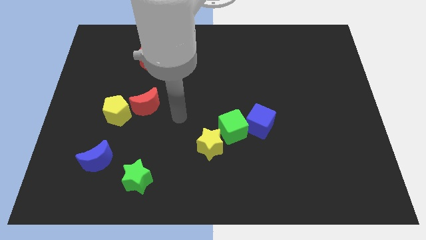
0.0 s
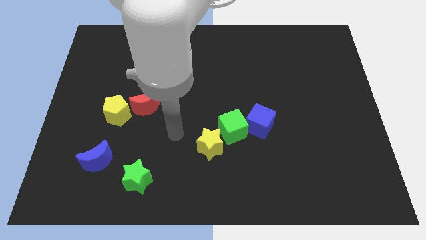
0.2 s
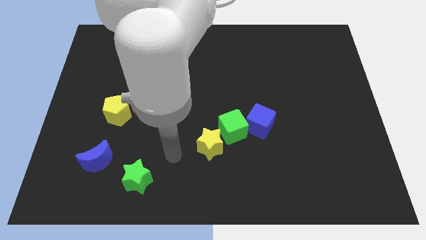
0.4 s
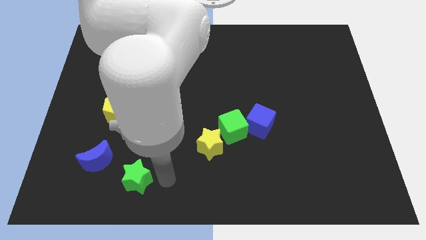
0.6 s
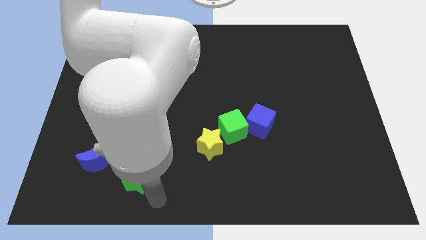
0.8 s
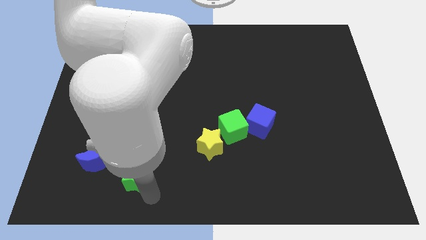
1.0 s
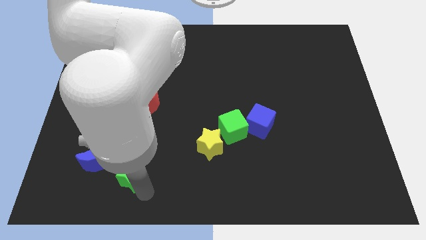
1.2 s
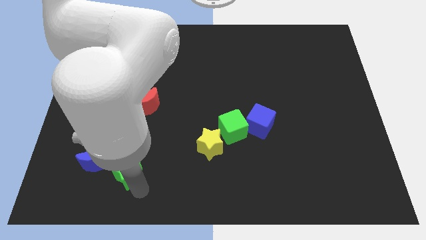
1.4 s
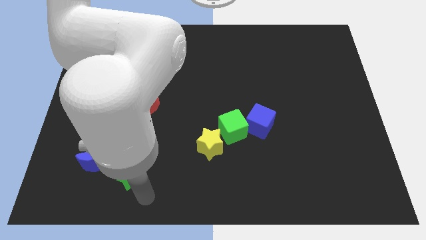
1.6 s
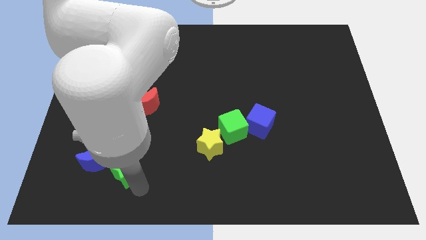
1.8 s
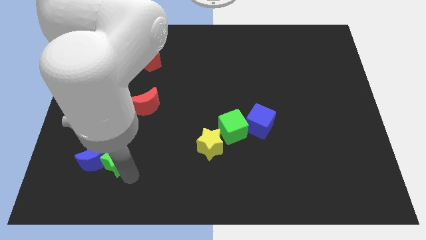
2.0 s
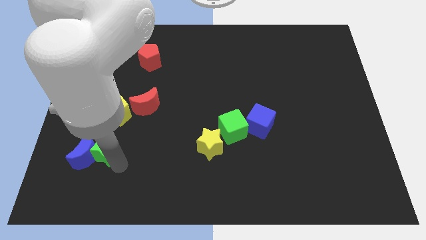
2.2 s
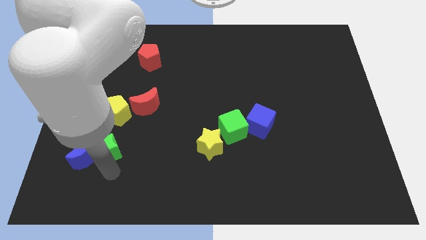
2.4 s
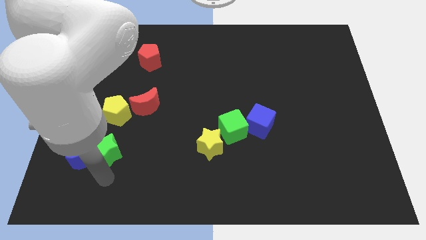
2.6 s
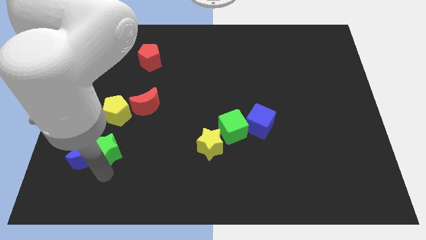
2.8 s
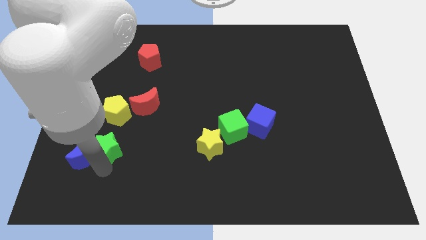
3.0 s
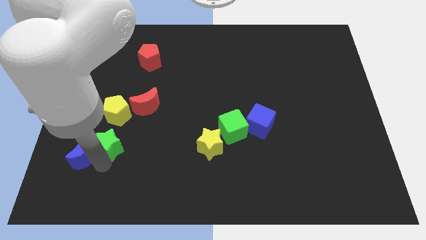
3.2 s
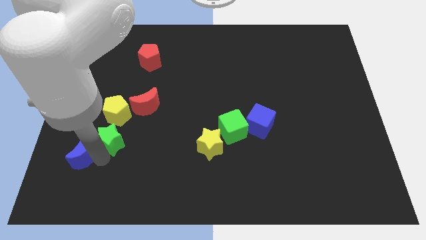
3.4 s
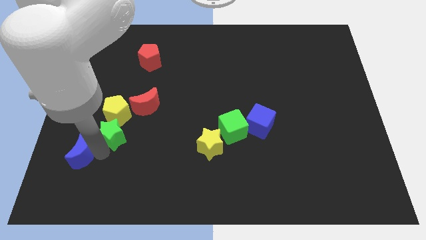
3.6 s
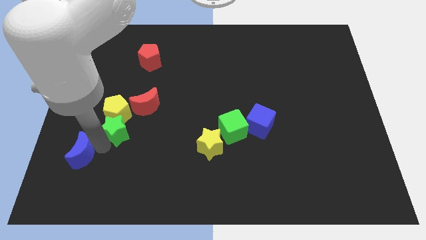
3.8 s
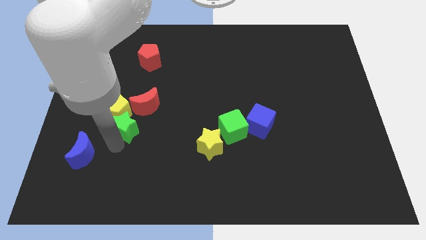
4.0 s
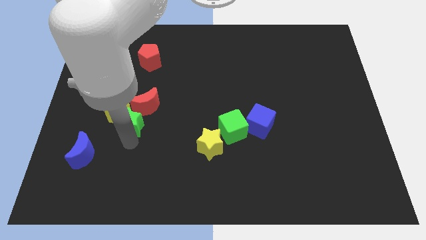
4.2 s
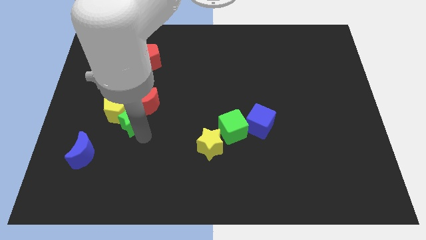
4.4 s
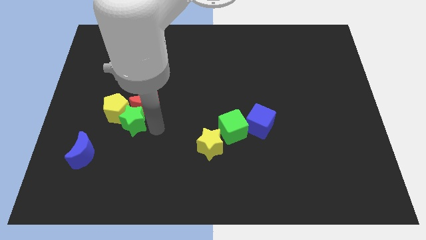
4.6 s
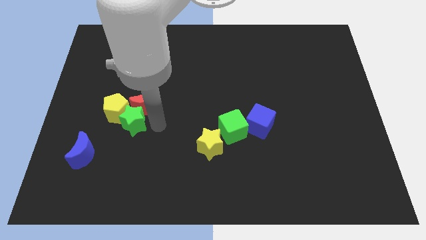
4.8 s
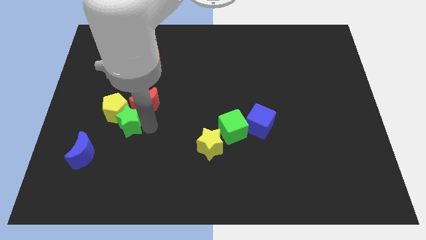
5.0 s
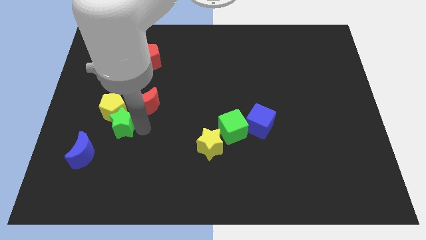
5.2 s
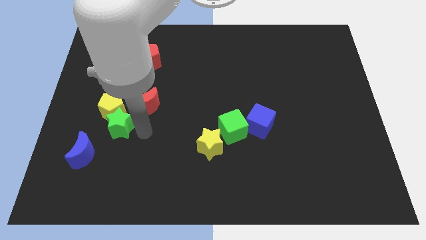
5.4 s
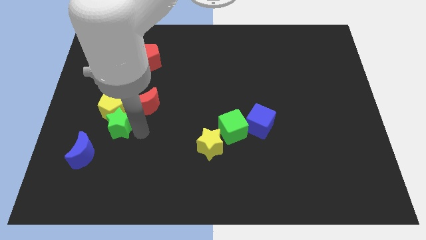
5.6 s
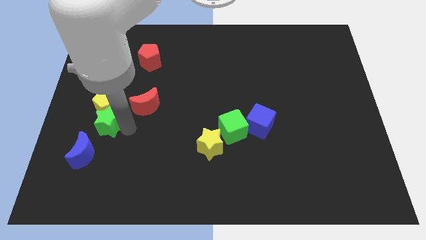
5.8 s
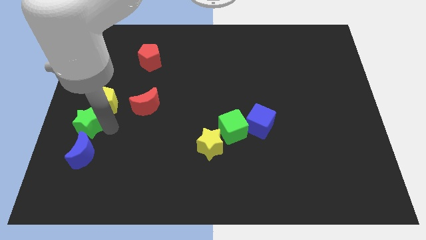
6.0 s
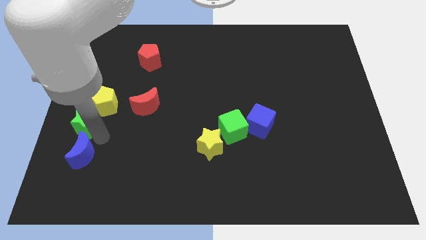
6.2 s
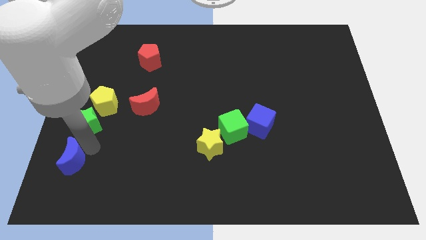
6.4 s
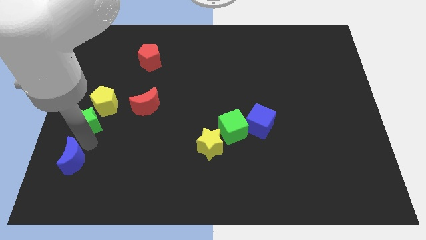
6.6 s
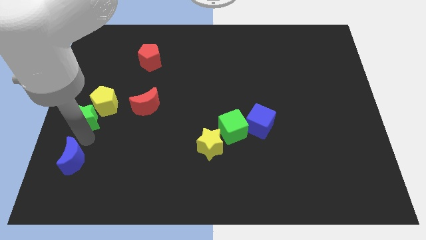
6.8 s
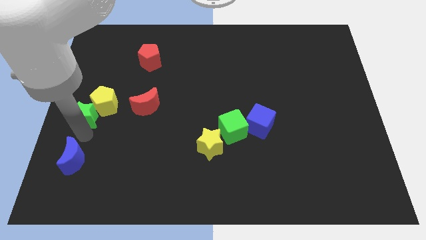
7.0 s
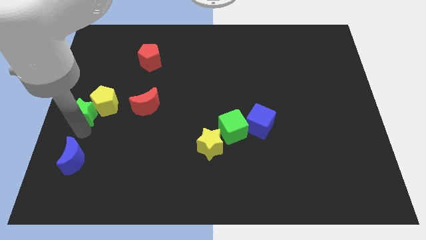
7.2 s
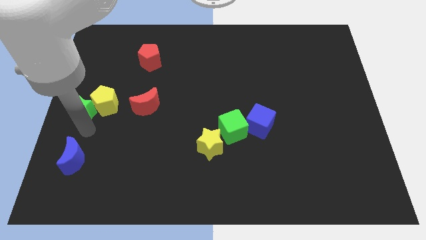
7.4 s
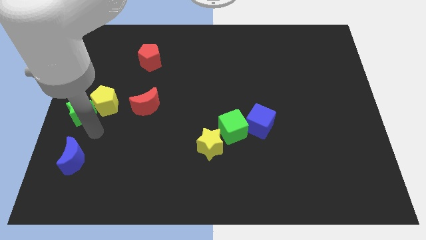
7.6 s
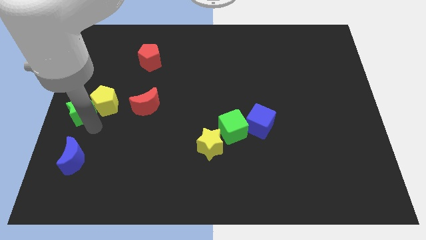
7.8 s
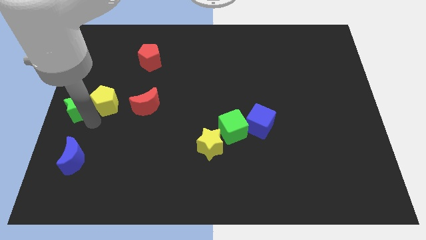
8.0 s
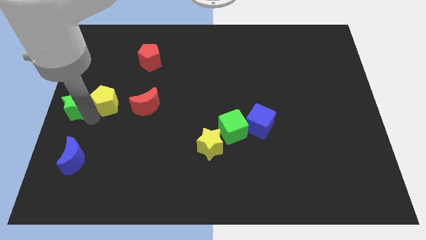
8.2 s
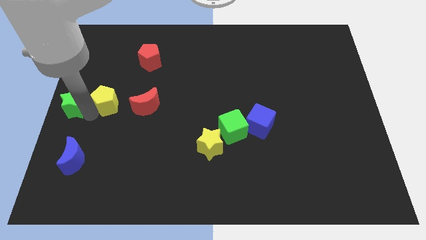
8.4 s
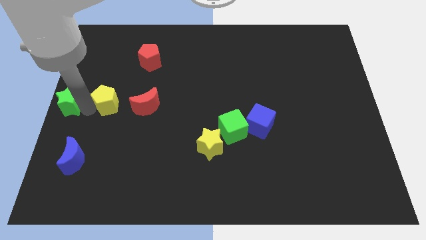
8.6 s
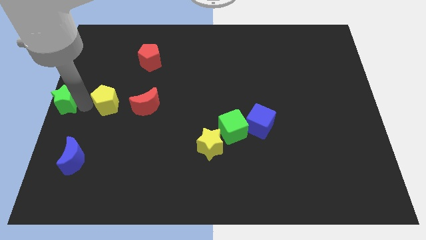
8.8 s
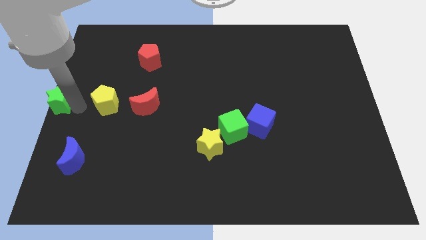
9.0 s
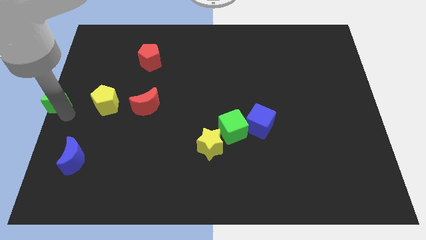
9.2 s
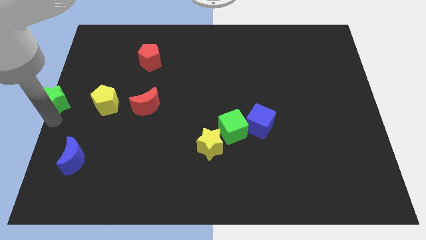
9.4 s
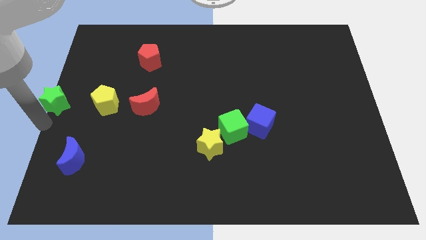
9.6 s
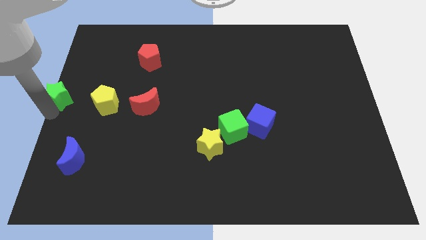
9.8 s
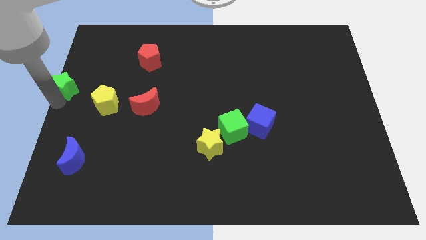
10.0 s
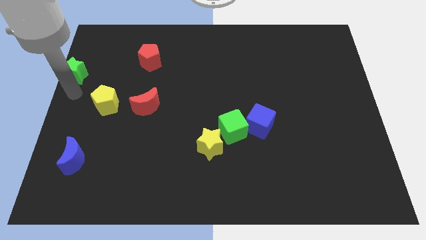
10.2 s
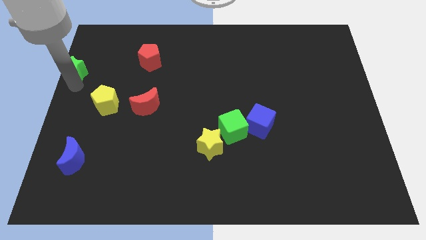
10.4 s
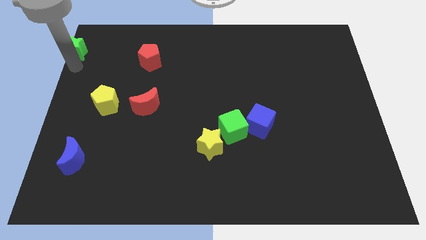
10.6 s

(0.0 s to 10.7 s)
put the green star to the upper left corner
